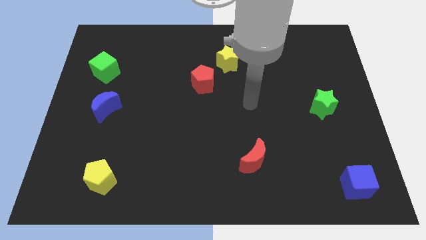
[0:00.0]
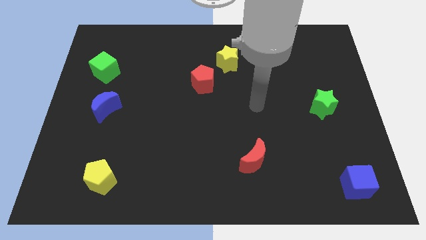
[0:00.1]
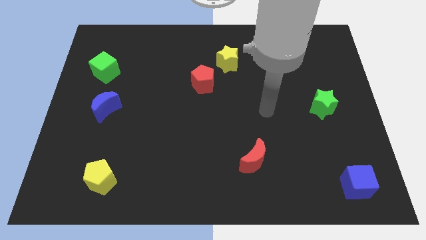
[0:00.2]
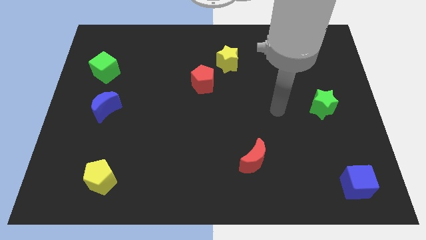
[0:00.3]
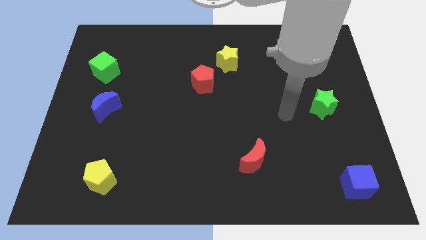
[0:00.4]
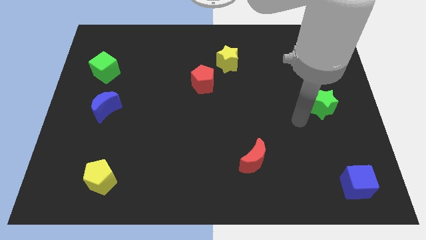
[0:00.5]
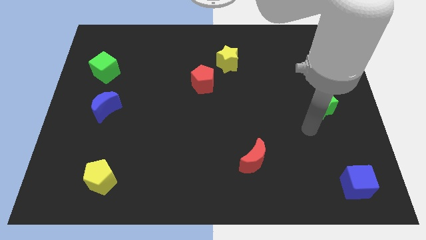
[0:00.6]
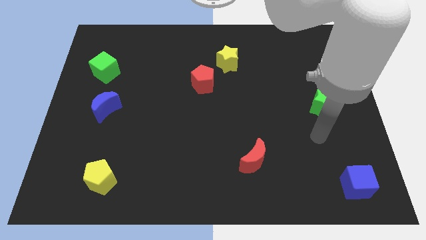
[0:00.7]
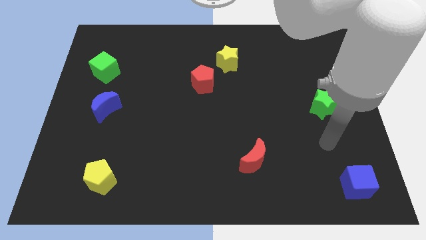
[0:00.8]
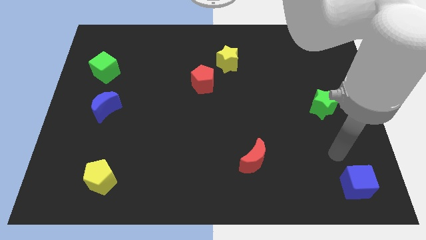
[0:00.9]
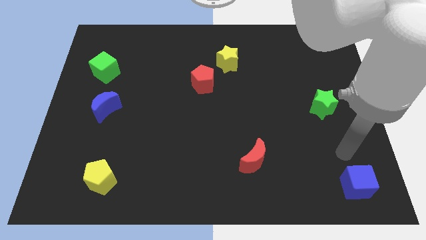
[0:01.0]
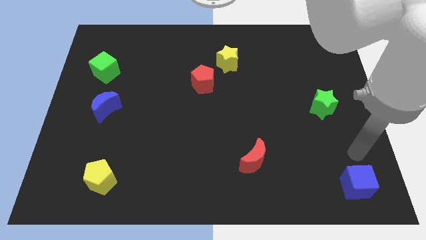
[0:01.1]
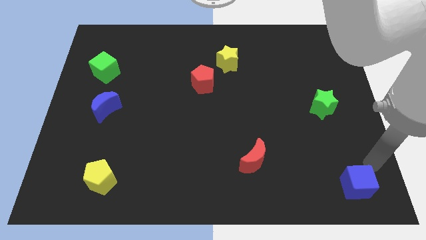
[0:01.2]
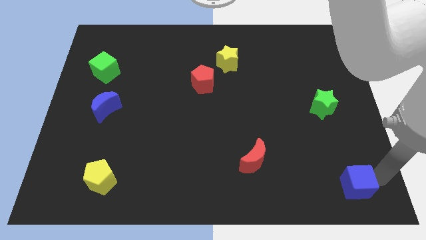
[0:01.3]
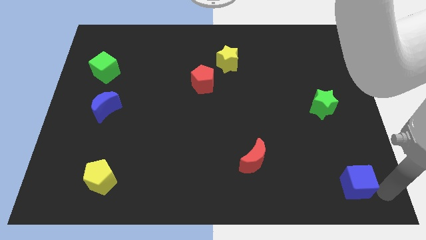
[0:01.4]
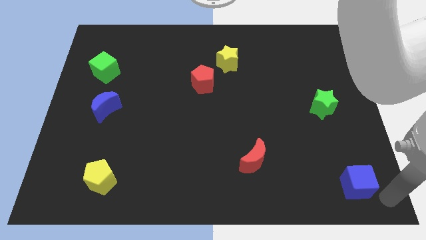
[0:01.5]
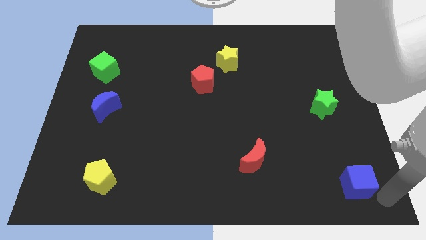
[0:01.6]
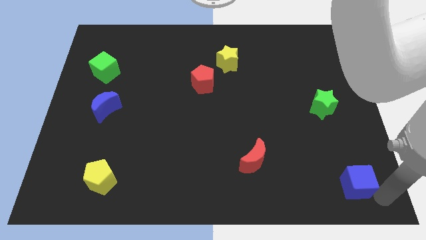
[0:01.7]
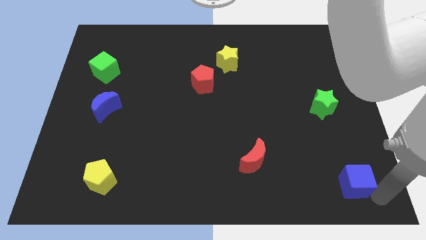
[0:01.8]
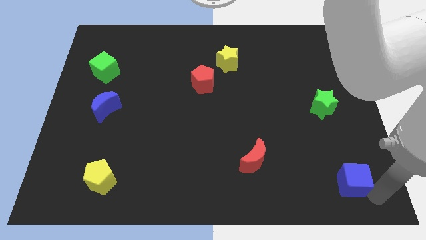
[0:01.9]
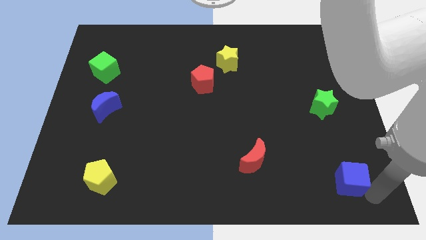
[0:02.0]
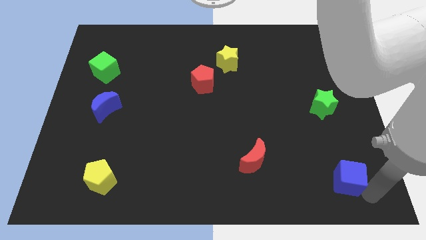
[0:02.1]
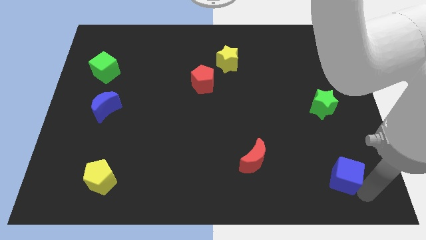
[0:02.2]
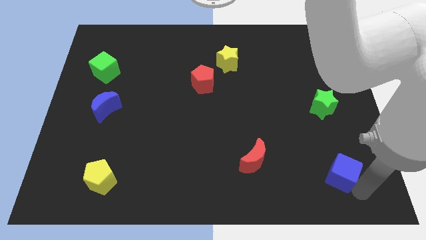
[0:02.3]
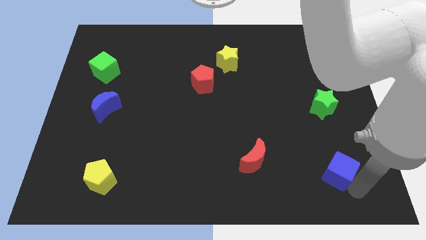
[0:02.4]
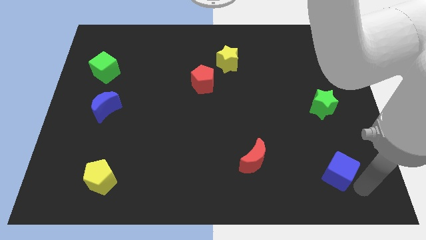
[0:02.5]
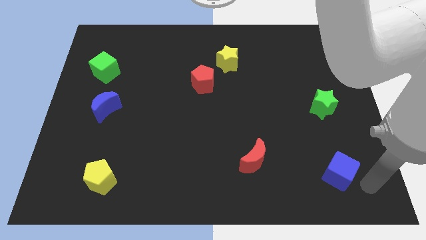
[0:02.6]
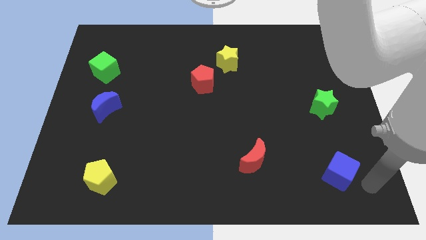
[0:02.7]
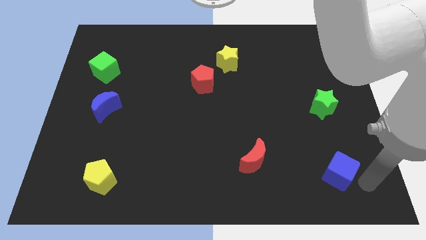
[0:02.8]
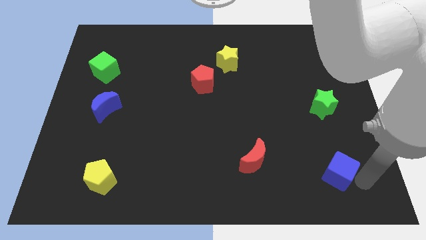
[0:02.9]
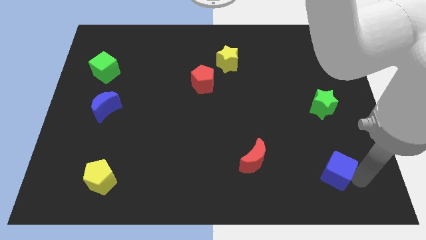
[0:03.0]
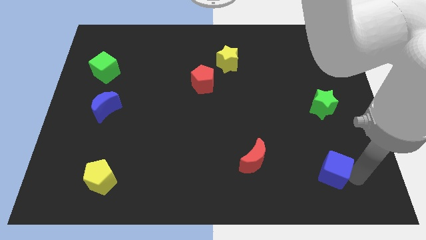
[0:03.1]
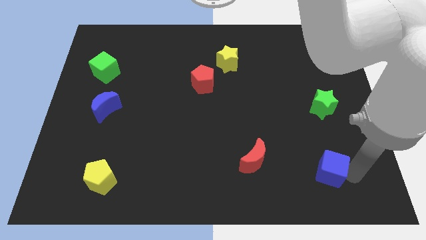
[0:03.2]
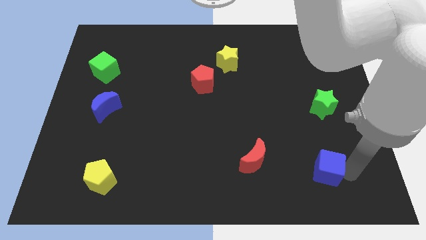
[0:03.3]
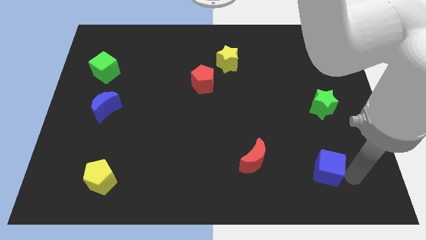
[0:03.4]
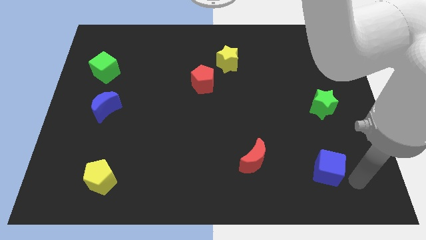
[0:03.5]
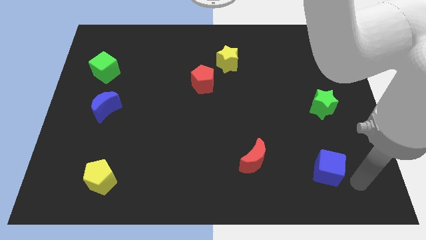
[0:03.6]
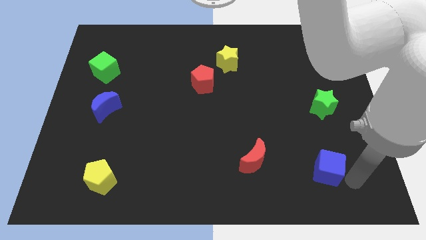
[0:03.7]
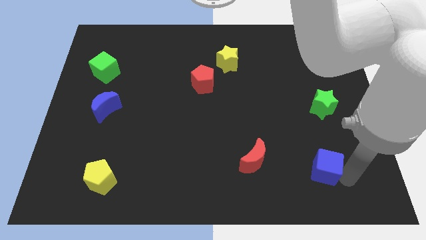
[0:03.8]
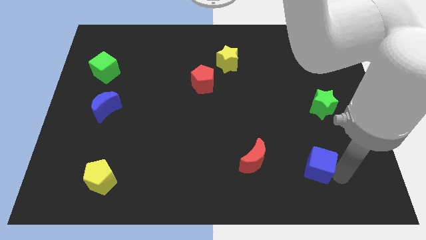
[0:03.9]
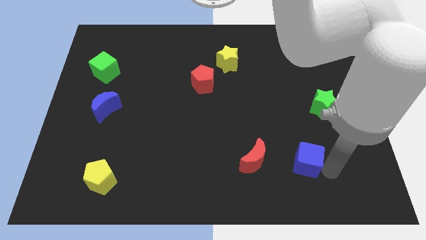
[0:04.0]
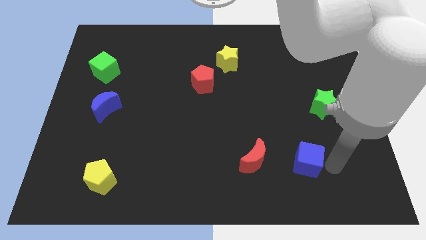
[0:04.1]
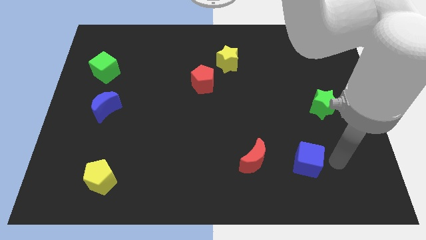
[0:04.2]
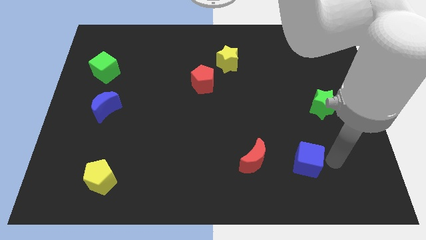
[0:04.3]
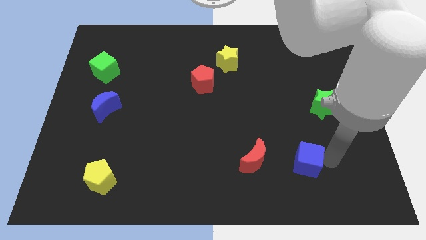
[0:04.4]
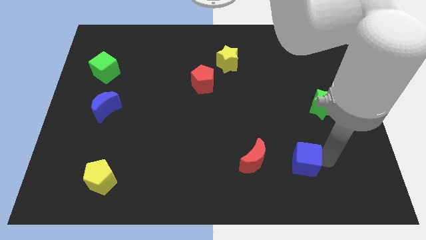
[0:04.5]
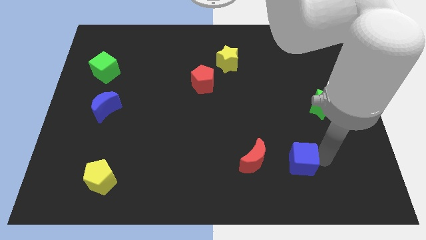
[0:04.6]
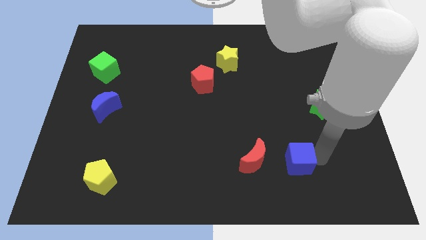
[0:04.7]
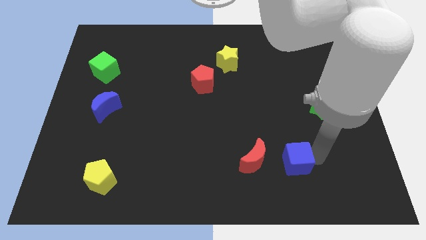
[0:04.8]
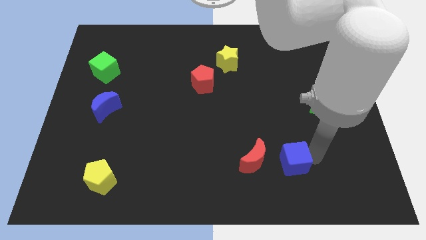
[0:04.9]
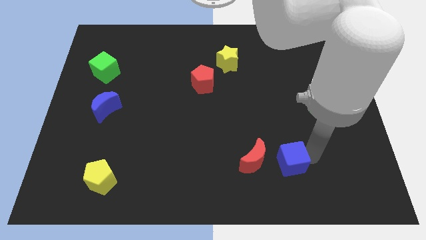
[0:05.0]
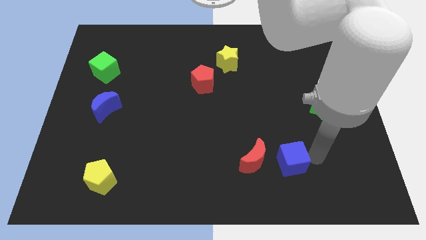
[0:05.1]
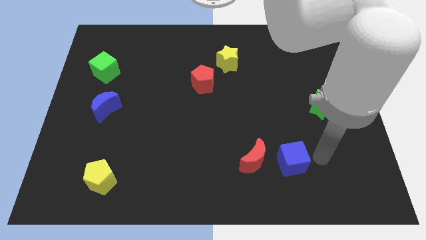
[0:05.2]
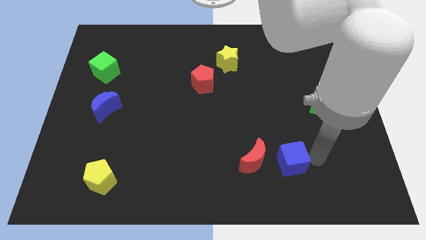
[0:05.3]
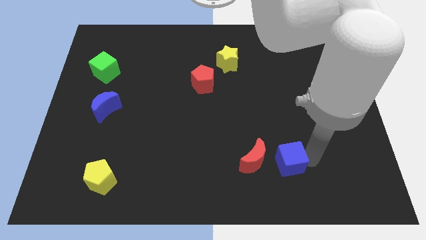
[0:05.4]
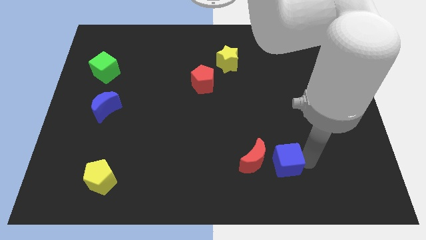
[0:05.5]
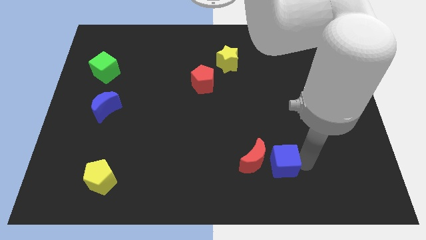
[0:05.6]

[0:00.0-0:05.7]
put the blue cube towards the red moon

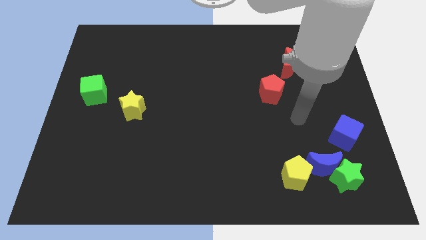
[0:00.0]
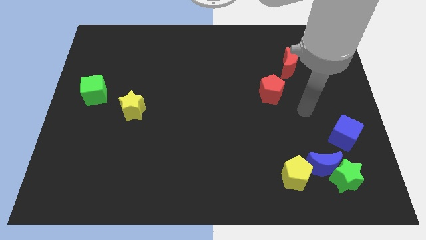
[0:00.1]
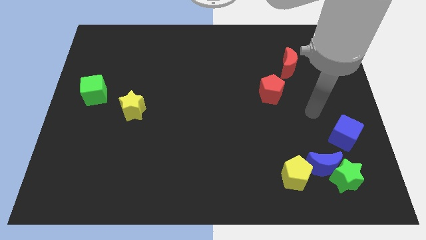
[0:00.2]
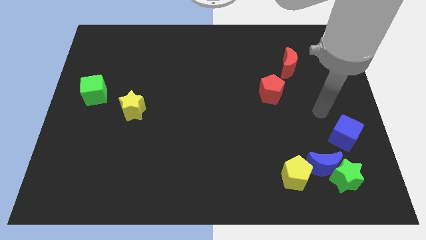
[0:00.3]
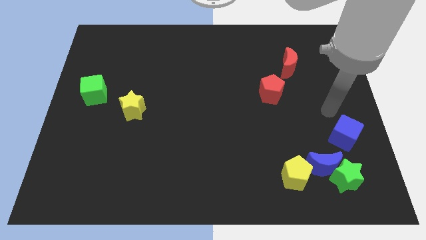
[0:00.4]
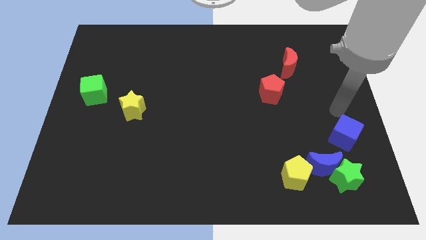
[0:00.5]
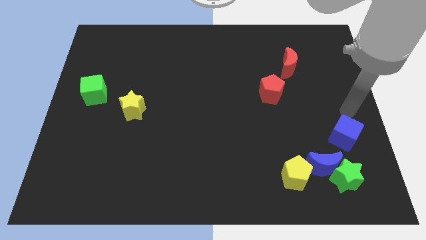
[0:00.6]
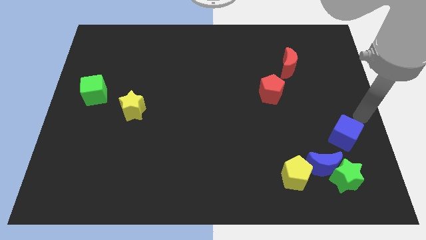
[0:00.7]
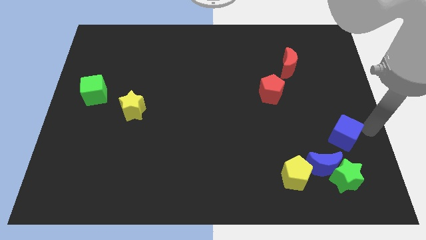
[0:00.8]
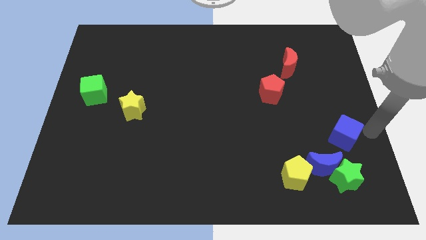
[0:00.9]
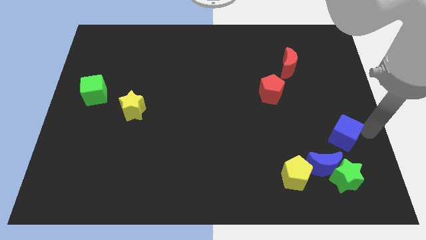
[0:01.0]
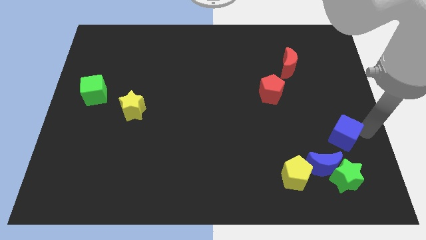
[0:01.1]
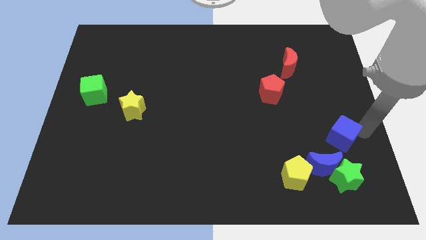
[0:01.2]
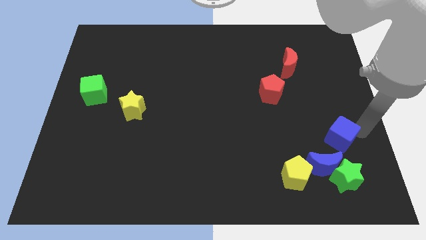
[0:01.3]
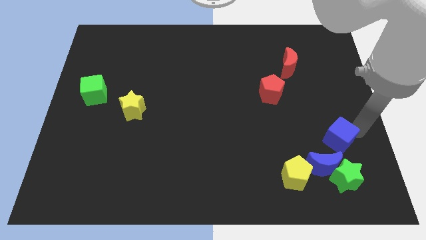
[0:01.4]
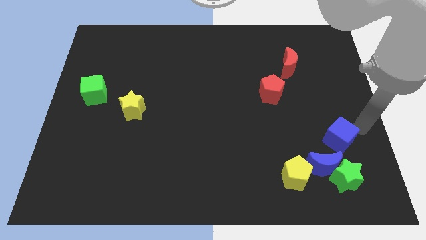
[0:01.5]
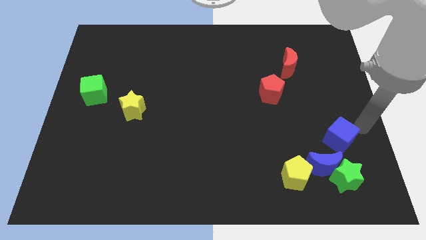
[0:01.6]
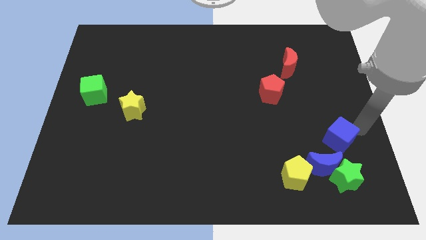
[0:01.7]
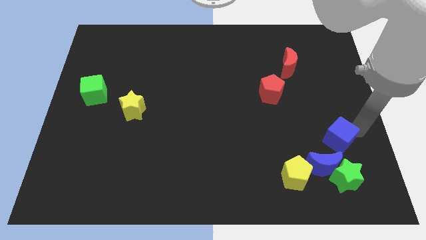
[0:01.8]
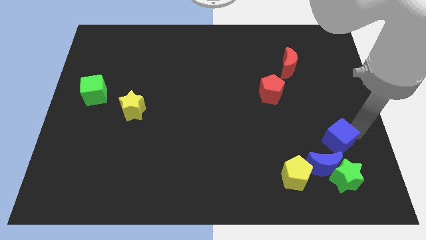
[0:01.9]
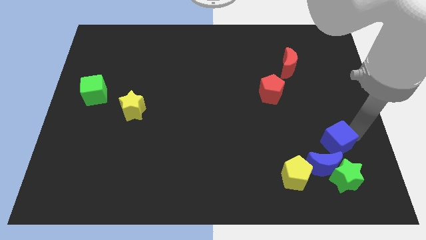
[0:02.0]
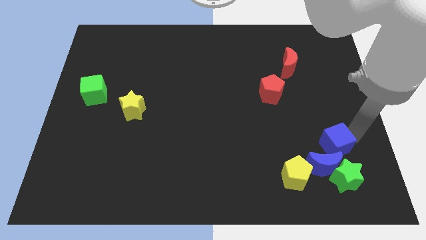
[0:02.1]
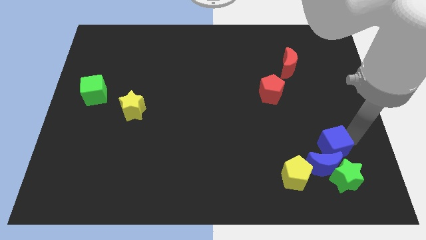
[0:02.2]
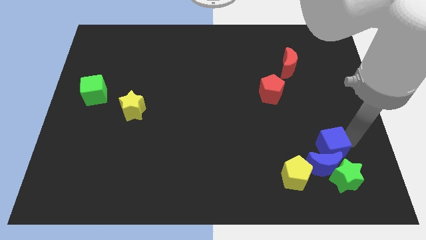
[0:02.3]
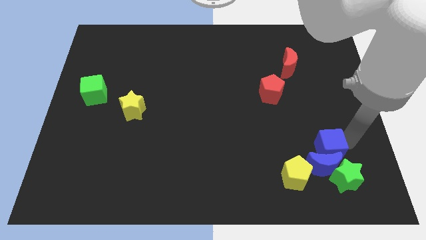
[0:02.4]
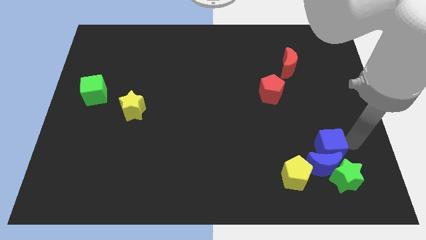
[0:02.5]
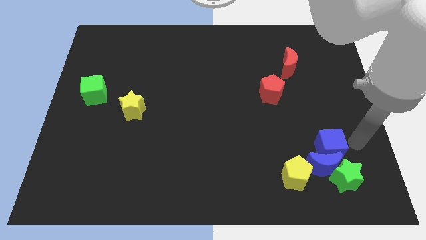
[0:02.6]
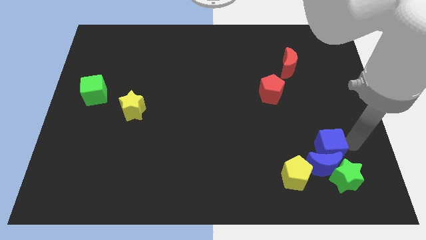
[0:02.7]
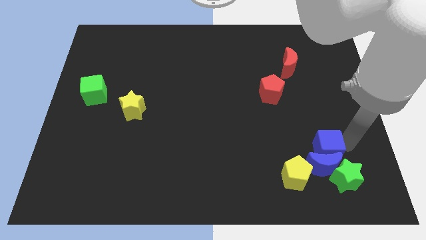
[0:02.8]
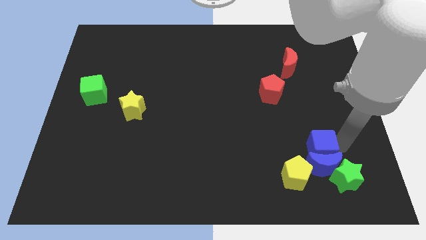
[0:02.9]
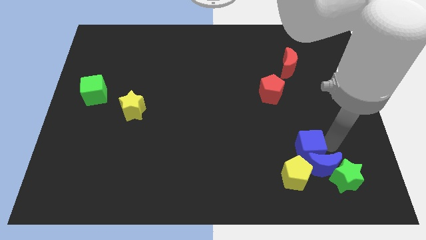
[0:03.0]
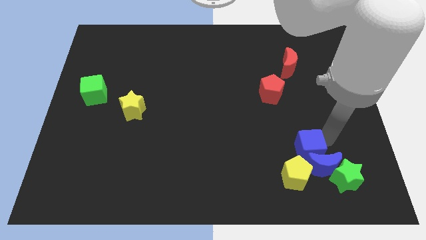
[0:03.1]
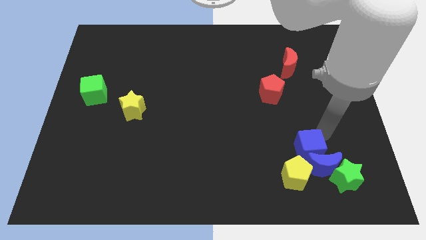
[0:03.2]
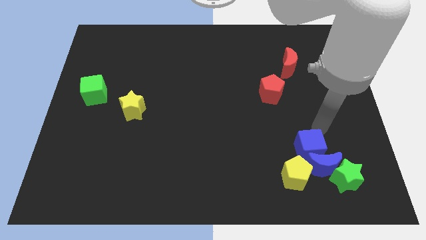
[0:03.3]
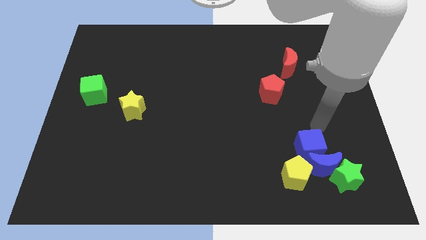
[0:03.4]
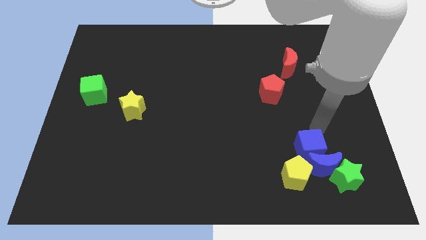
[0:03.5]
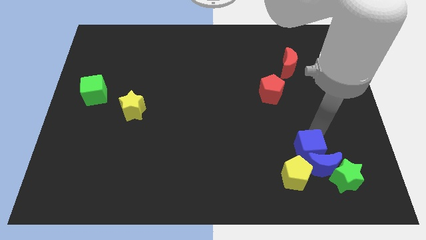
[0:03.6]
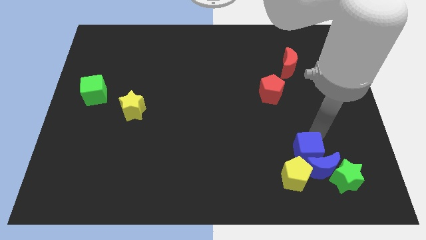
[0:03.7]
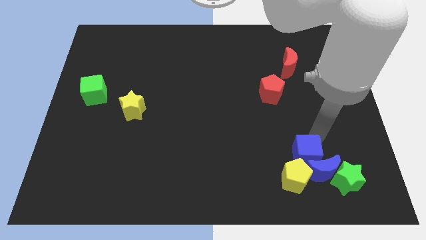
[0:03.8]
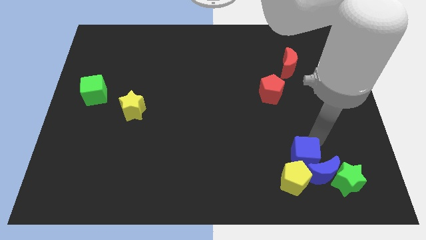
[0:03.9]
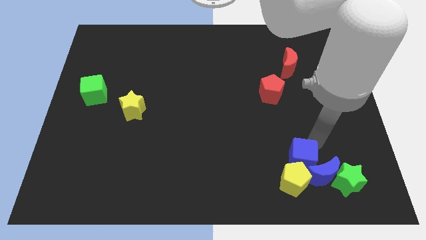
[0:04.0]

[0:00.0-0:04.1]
push the blue cube close to the yellow pentagon
